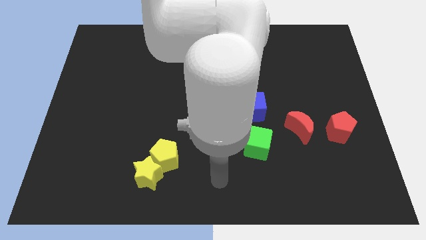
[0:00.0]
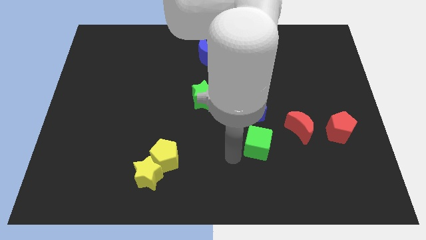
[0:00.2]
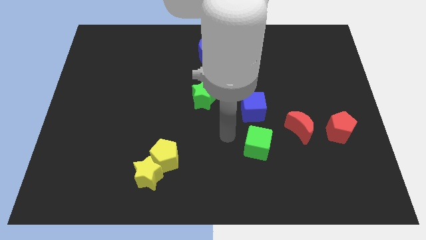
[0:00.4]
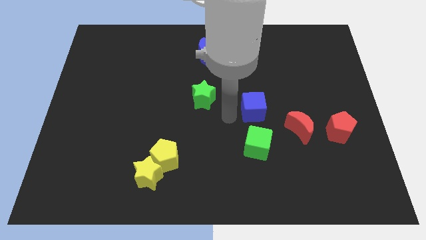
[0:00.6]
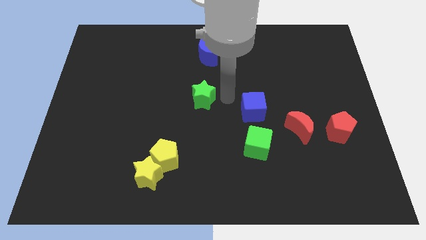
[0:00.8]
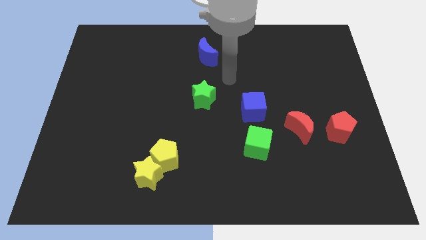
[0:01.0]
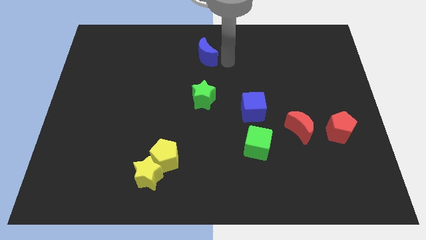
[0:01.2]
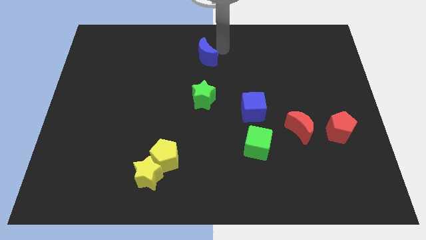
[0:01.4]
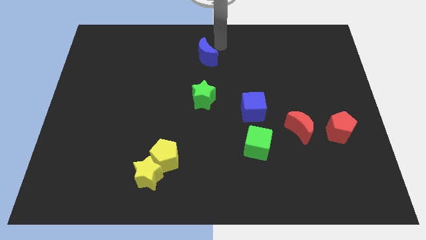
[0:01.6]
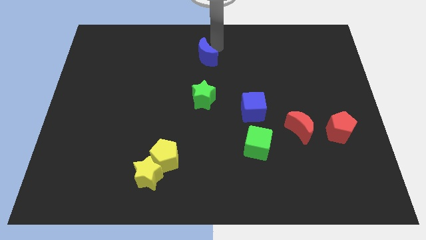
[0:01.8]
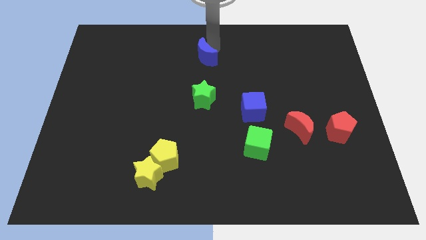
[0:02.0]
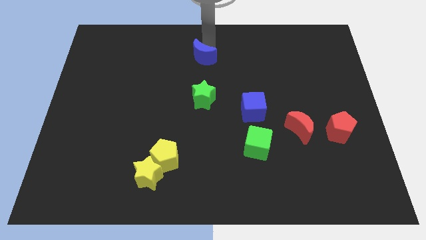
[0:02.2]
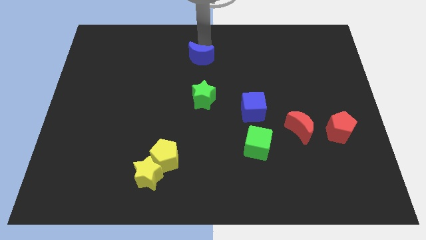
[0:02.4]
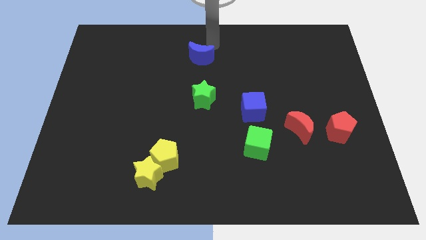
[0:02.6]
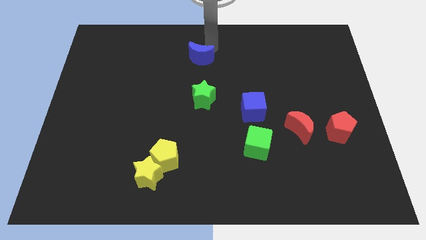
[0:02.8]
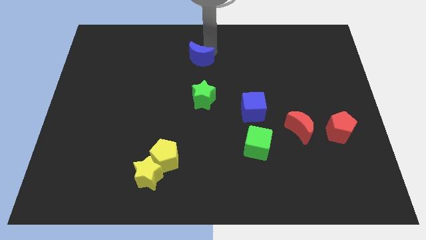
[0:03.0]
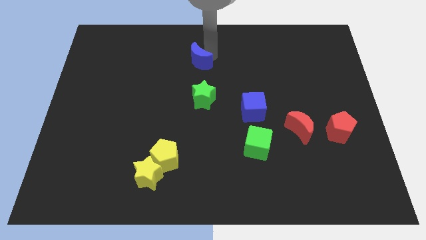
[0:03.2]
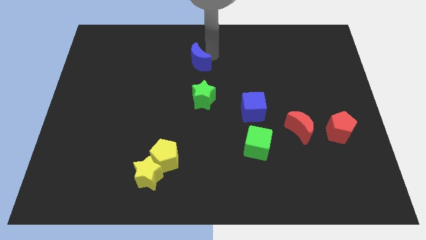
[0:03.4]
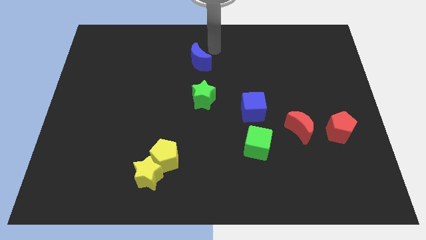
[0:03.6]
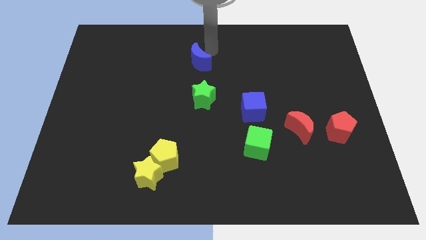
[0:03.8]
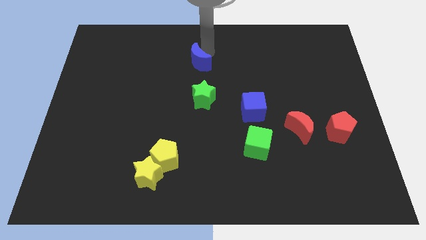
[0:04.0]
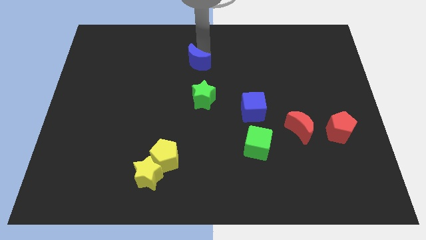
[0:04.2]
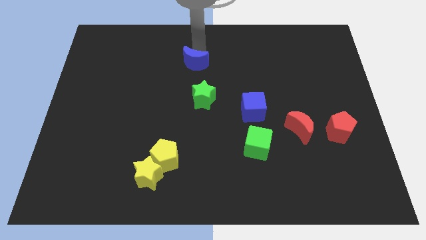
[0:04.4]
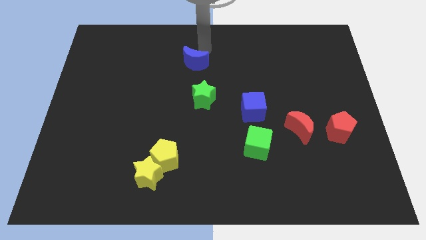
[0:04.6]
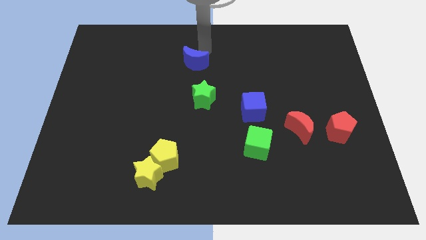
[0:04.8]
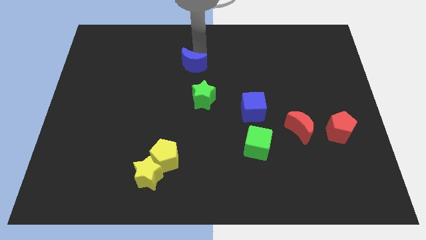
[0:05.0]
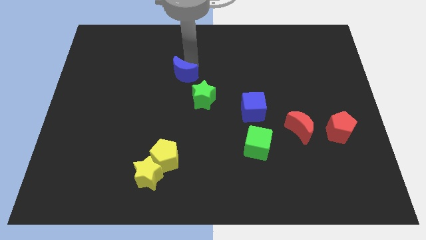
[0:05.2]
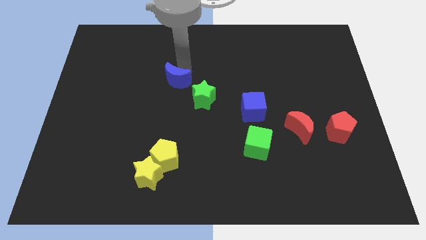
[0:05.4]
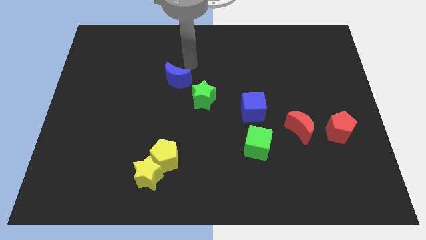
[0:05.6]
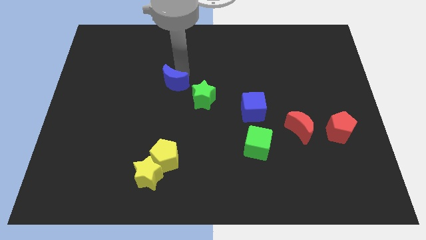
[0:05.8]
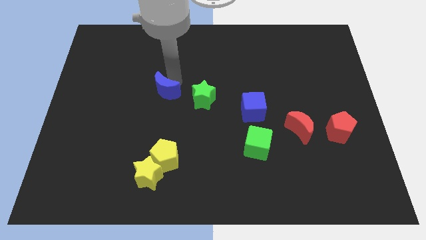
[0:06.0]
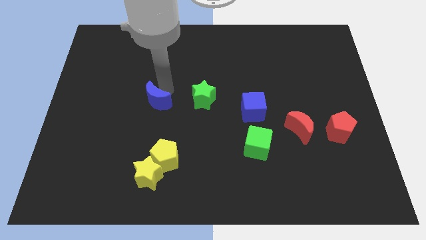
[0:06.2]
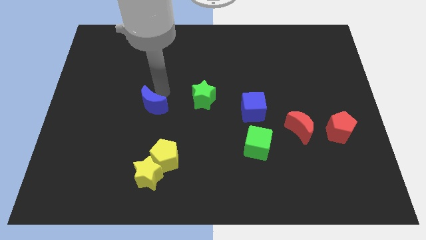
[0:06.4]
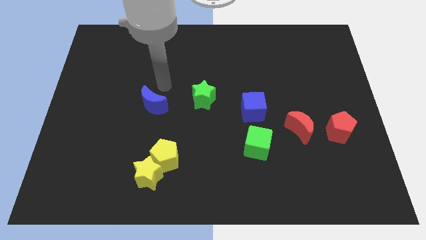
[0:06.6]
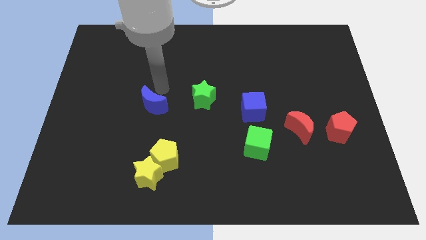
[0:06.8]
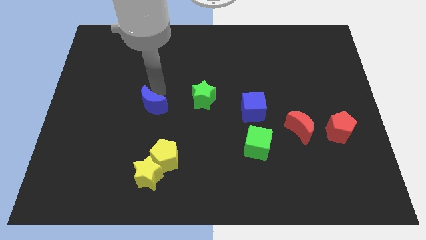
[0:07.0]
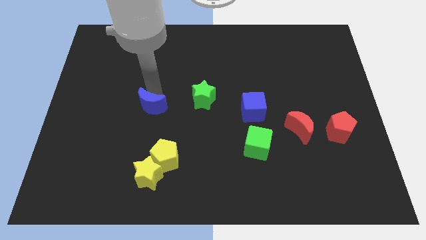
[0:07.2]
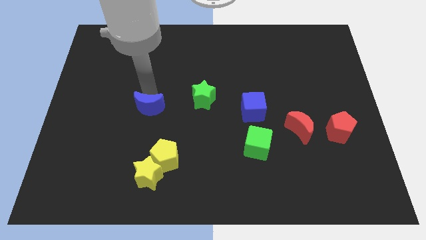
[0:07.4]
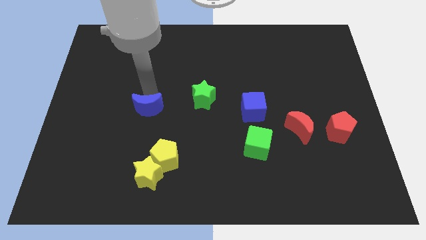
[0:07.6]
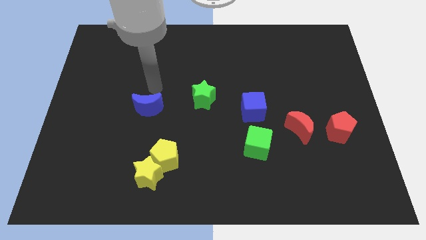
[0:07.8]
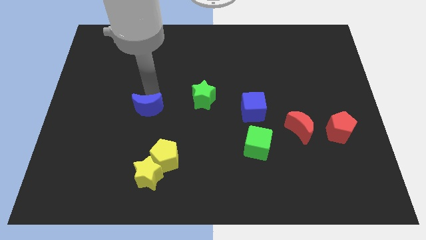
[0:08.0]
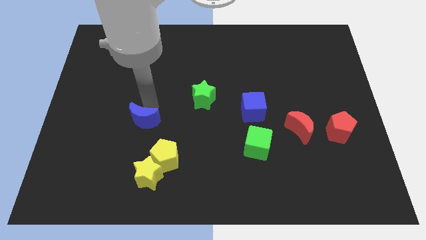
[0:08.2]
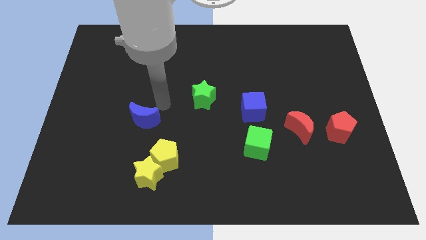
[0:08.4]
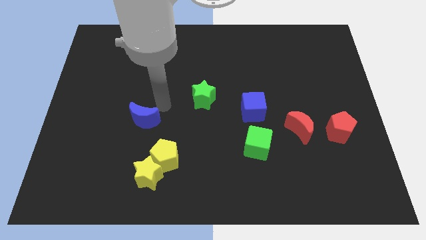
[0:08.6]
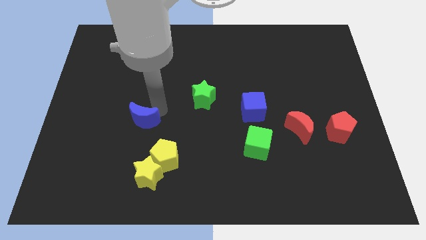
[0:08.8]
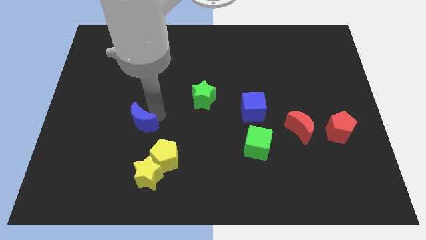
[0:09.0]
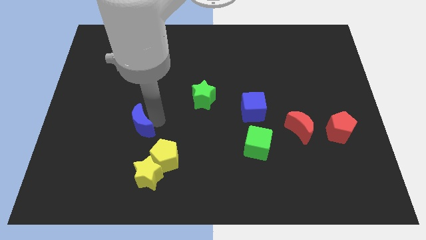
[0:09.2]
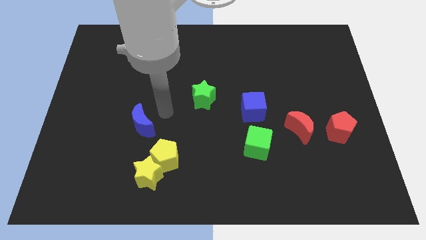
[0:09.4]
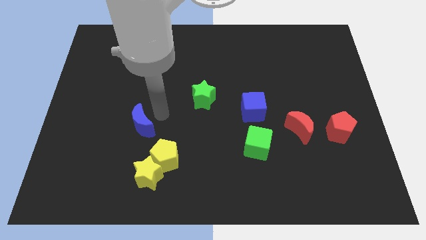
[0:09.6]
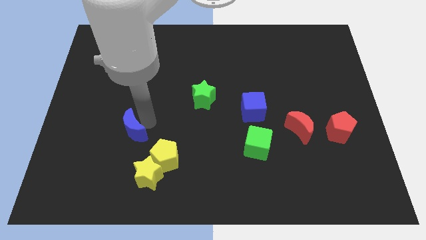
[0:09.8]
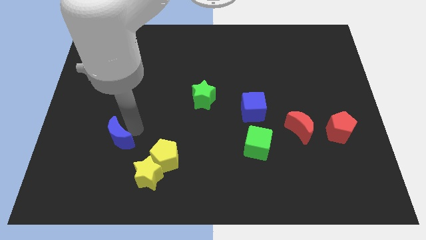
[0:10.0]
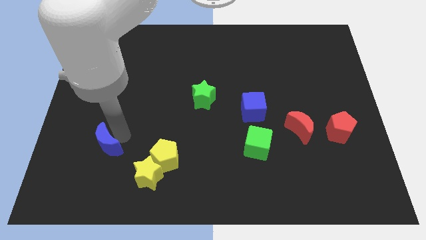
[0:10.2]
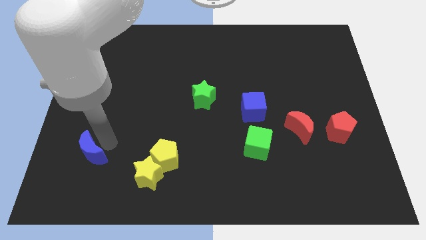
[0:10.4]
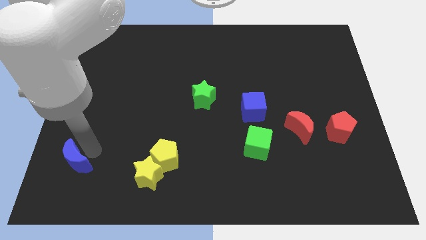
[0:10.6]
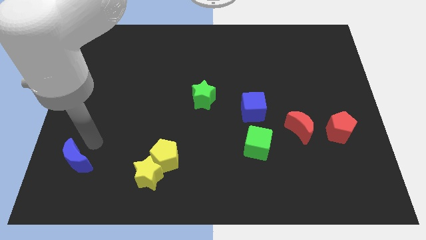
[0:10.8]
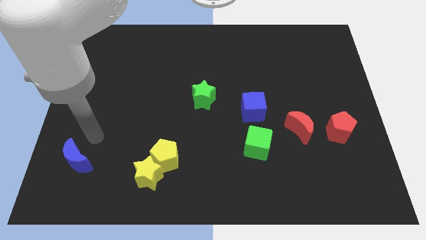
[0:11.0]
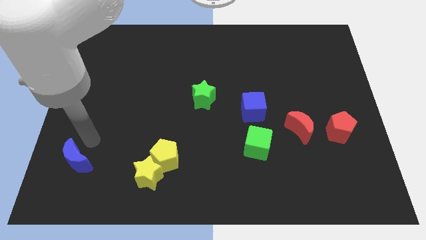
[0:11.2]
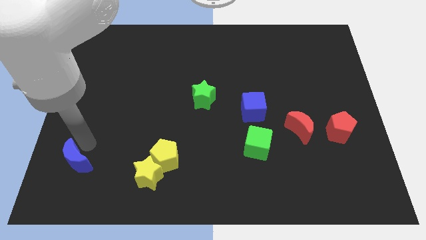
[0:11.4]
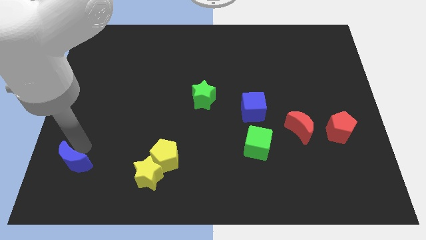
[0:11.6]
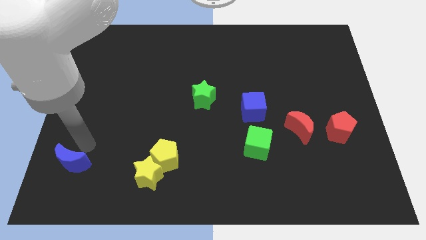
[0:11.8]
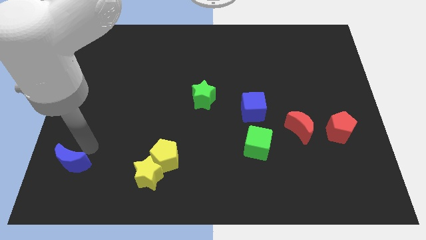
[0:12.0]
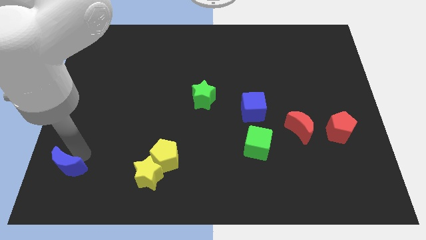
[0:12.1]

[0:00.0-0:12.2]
put the blue moon to the bottom left of the board
